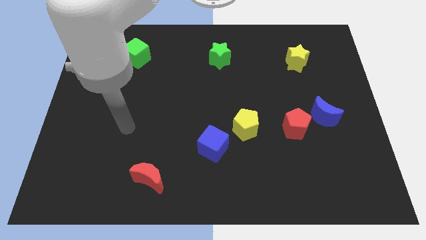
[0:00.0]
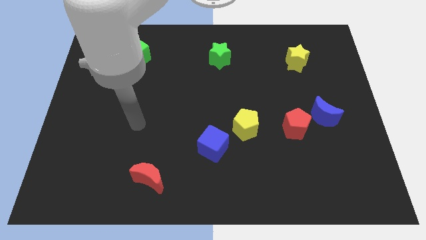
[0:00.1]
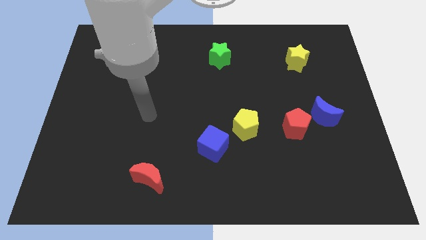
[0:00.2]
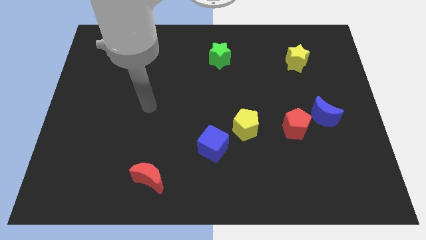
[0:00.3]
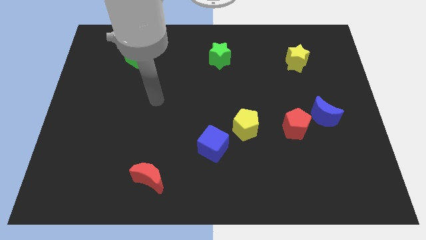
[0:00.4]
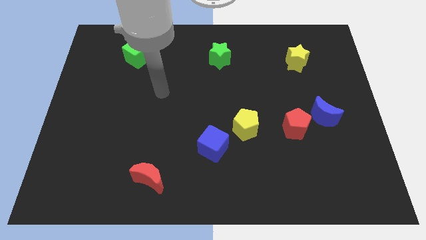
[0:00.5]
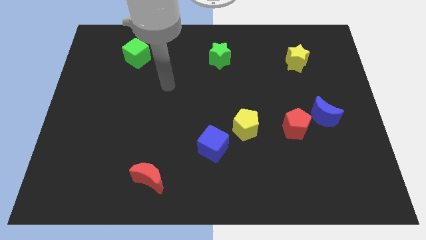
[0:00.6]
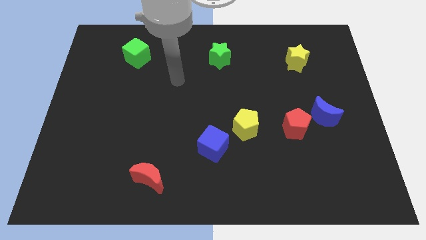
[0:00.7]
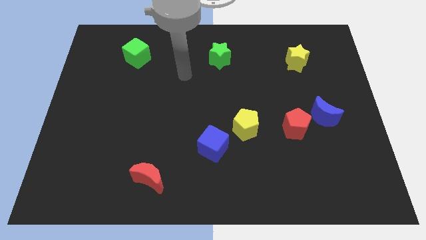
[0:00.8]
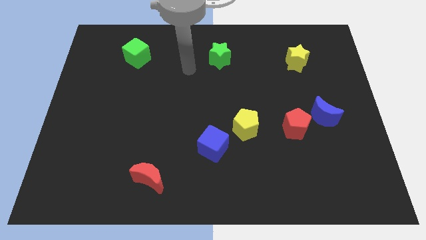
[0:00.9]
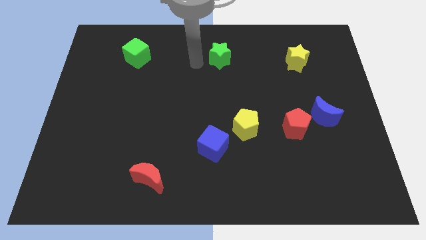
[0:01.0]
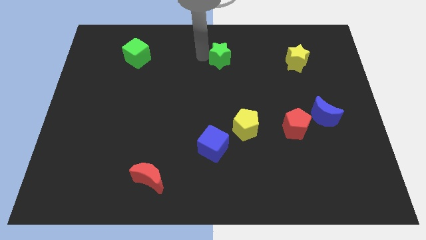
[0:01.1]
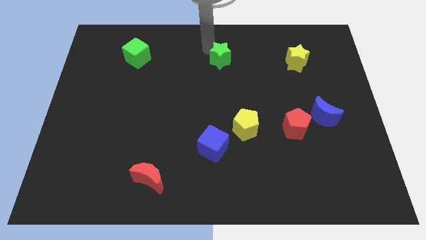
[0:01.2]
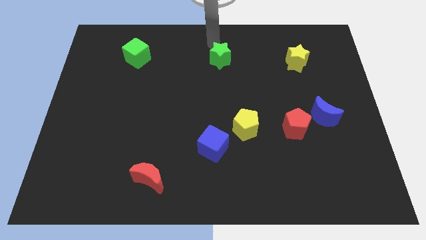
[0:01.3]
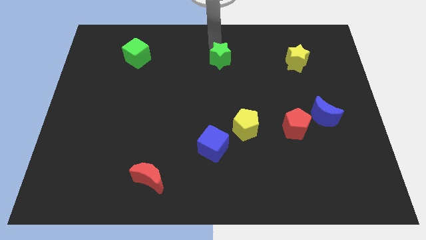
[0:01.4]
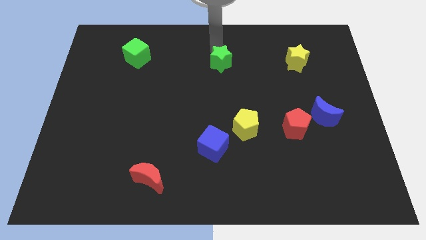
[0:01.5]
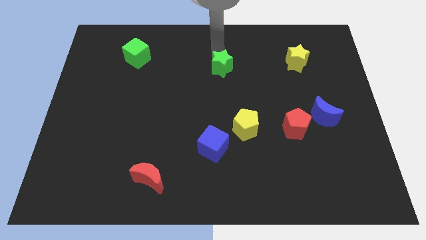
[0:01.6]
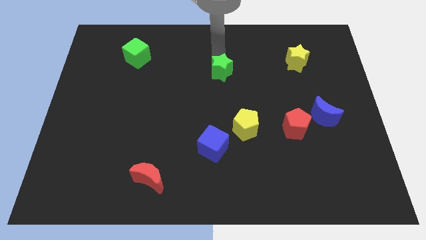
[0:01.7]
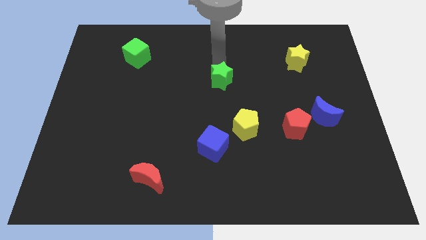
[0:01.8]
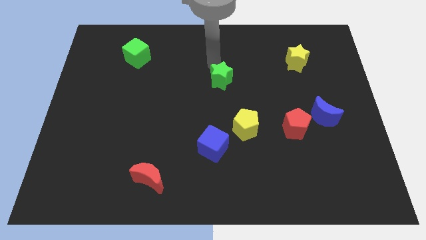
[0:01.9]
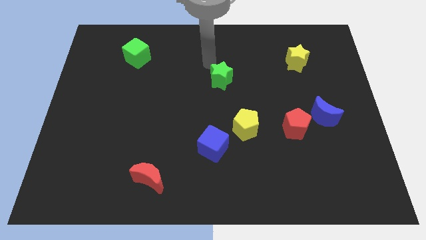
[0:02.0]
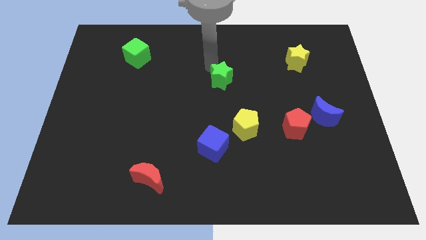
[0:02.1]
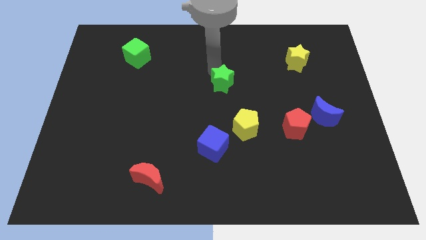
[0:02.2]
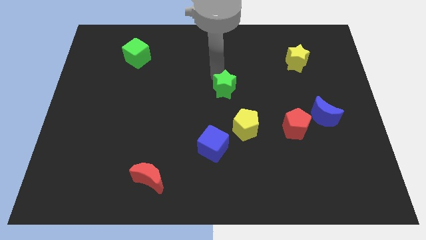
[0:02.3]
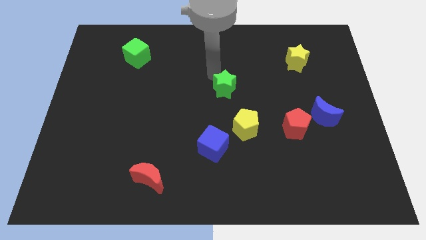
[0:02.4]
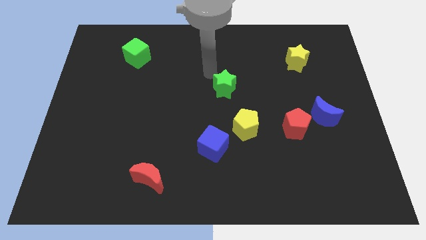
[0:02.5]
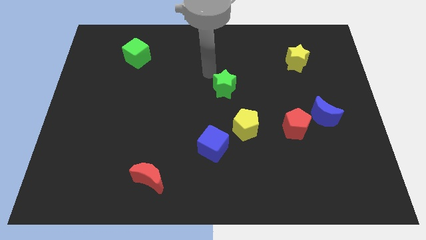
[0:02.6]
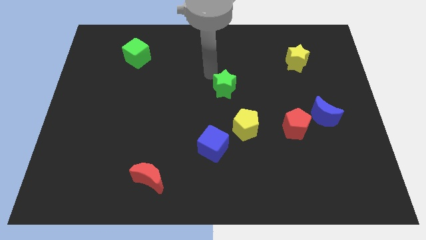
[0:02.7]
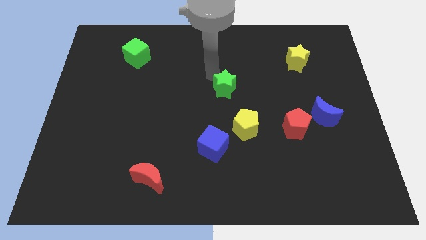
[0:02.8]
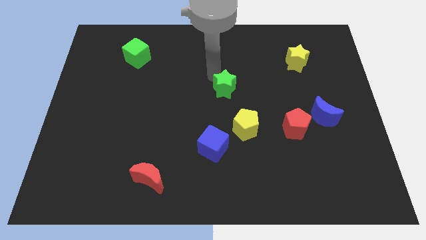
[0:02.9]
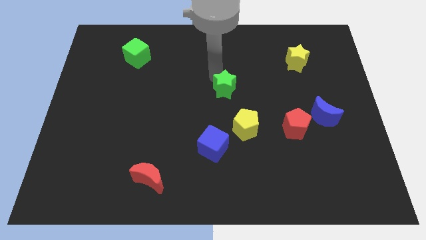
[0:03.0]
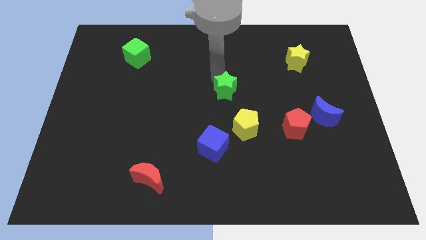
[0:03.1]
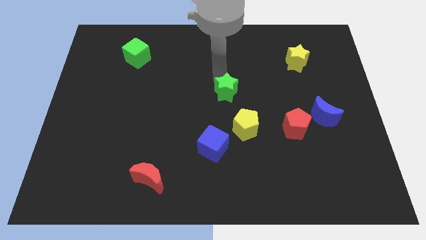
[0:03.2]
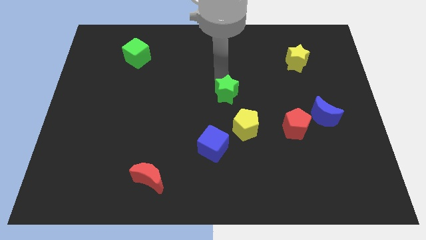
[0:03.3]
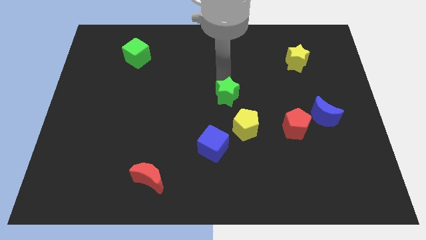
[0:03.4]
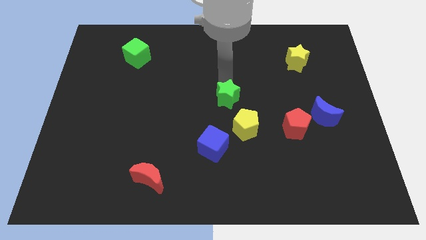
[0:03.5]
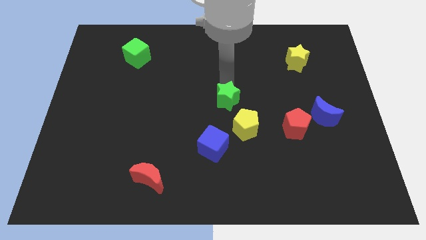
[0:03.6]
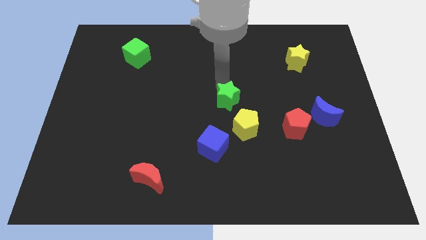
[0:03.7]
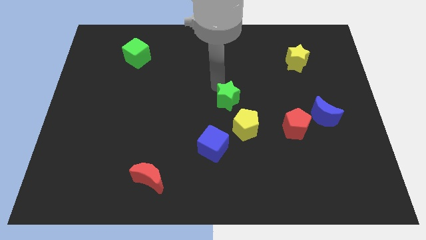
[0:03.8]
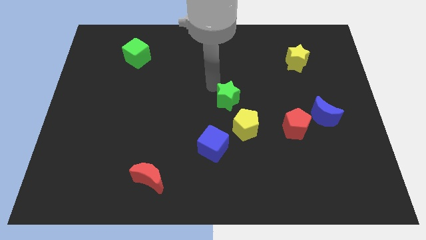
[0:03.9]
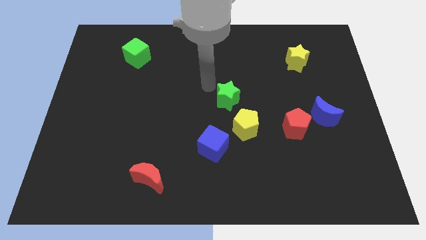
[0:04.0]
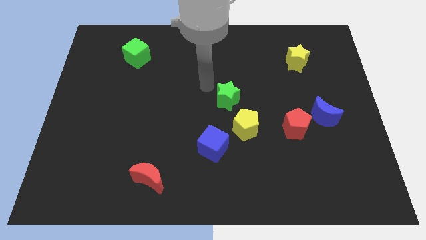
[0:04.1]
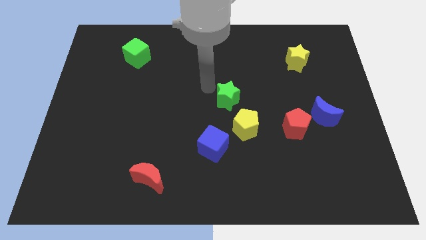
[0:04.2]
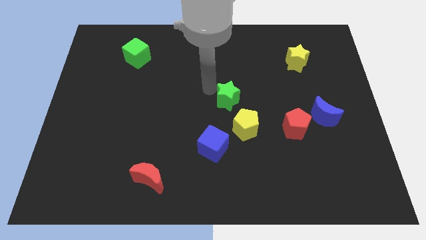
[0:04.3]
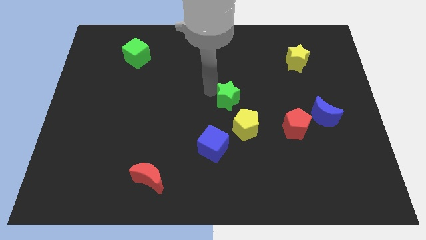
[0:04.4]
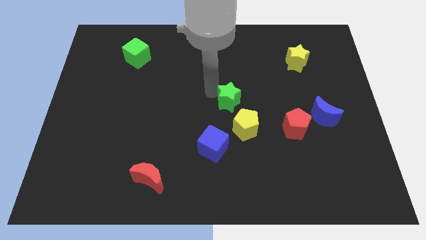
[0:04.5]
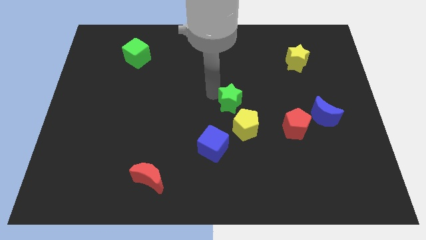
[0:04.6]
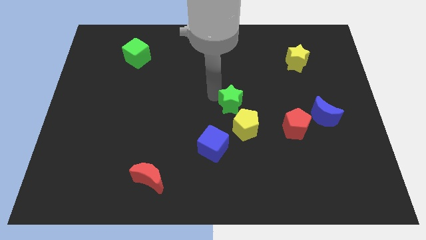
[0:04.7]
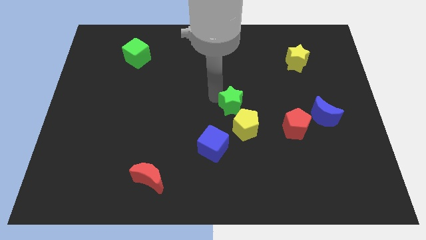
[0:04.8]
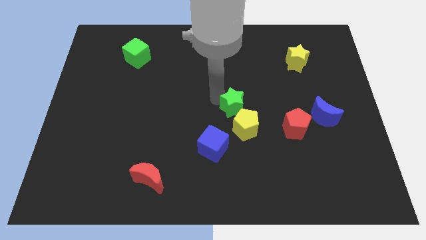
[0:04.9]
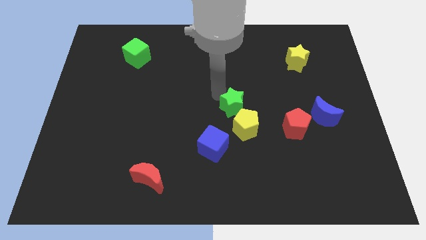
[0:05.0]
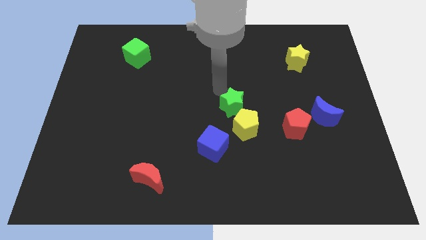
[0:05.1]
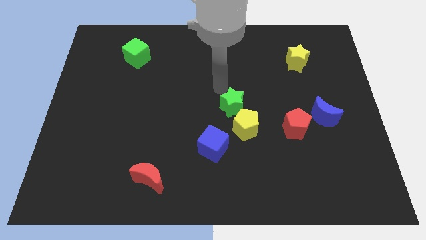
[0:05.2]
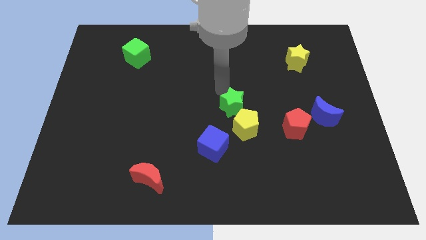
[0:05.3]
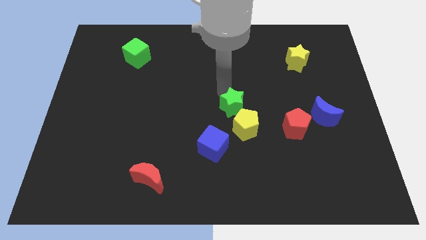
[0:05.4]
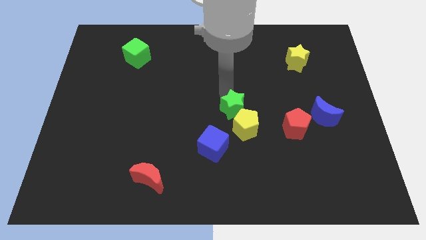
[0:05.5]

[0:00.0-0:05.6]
push the green star close to the yellow pentagon

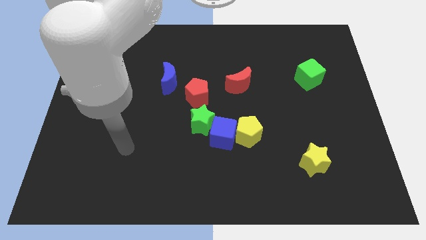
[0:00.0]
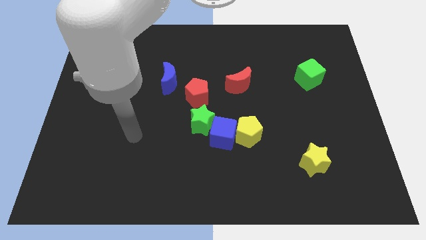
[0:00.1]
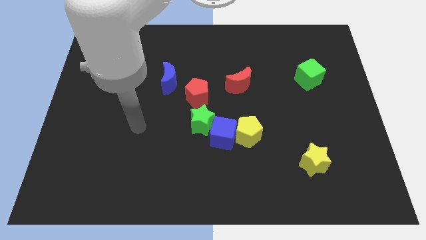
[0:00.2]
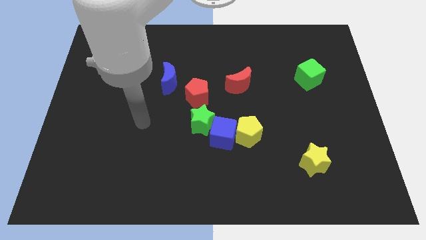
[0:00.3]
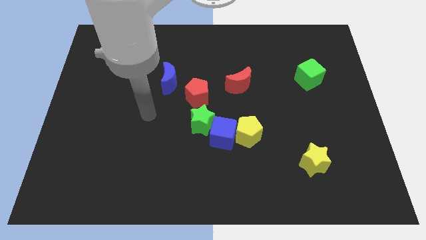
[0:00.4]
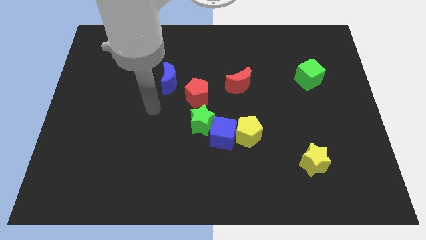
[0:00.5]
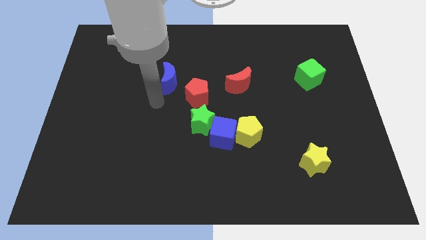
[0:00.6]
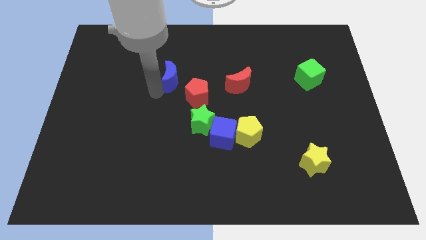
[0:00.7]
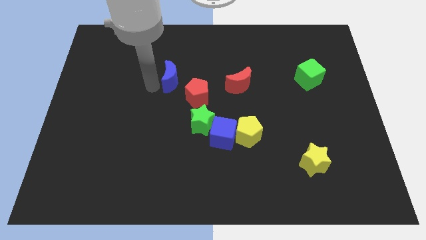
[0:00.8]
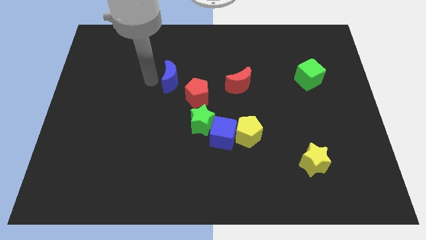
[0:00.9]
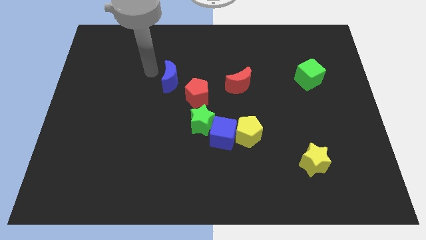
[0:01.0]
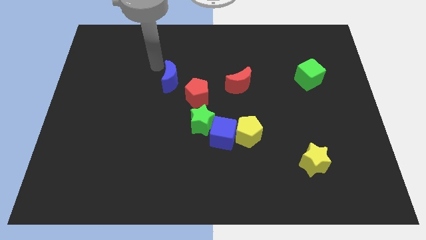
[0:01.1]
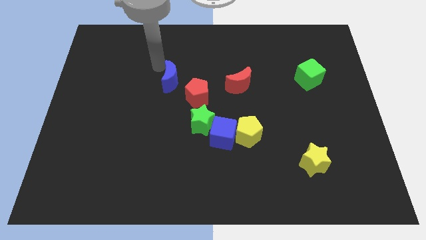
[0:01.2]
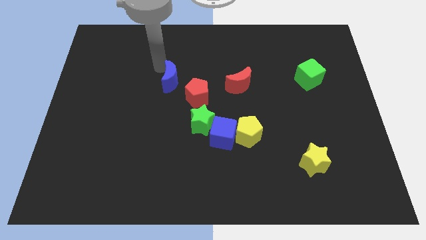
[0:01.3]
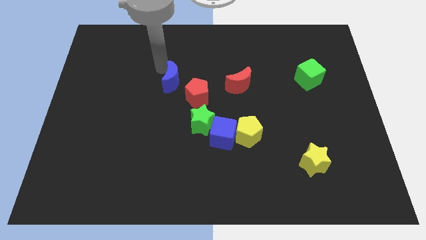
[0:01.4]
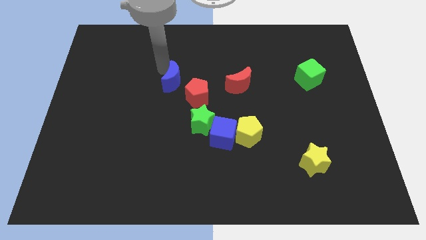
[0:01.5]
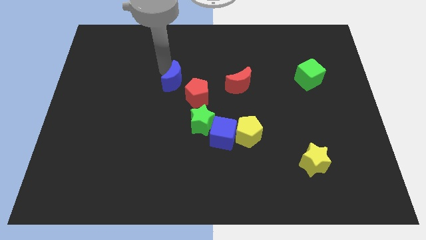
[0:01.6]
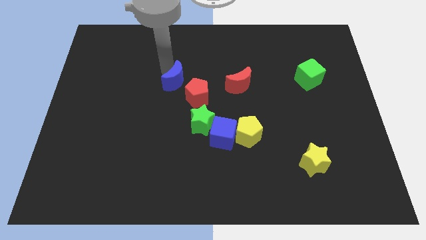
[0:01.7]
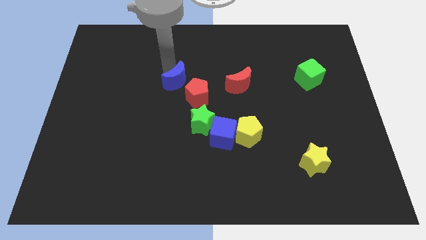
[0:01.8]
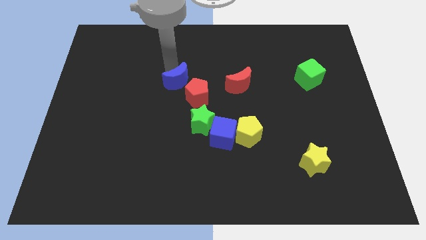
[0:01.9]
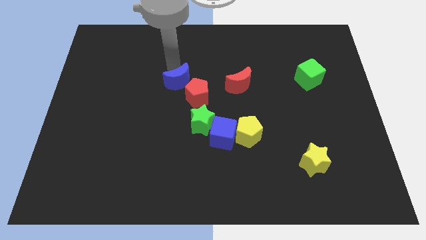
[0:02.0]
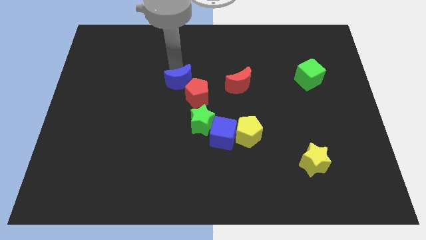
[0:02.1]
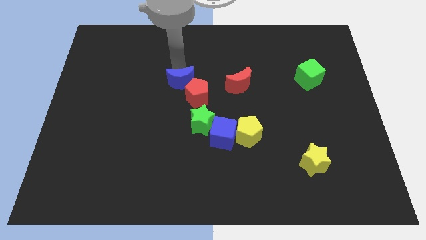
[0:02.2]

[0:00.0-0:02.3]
slide the blue moon close to the red pentagon
